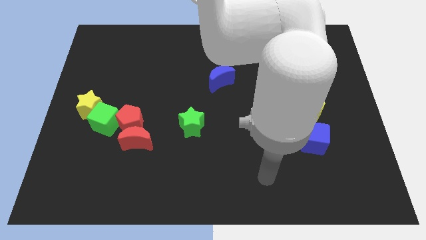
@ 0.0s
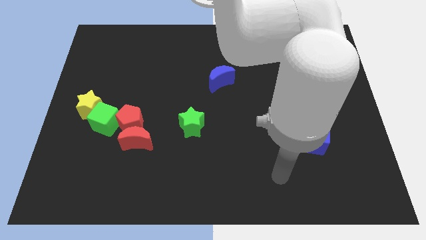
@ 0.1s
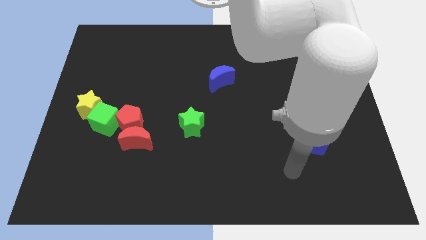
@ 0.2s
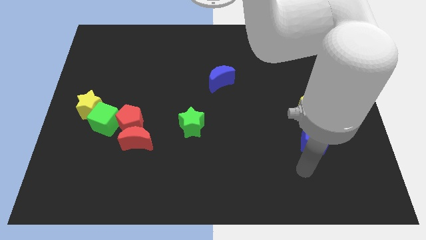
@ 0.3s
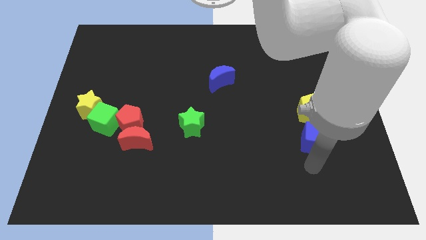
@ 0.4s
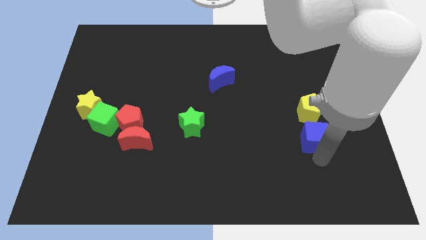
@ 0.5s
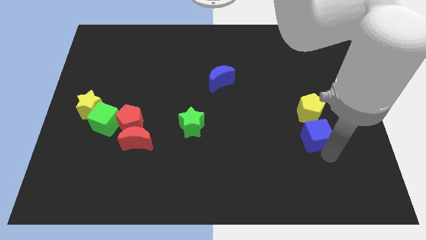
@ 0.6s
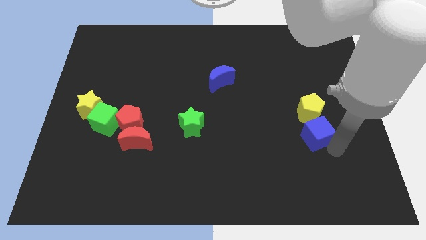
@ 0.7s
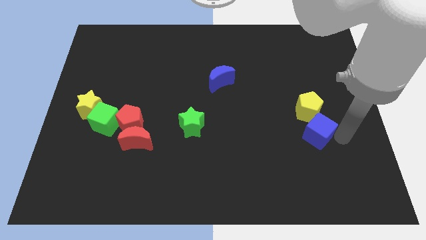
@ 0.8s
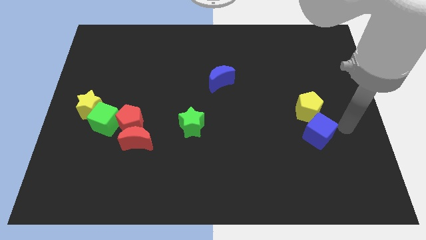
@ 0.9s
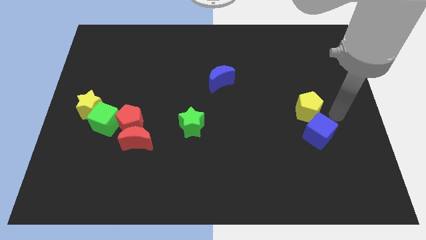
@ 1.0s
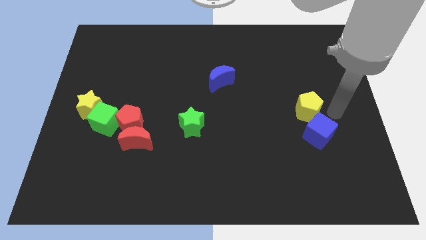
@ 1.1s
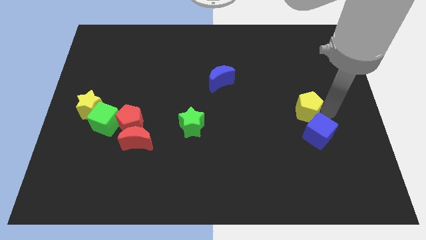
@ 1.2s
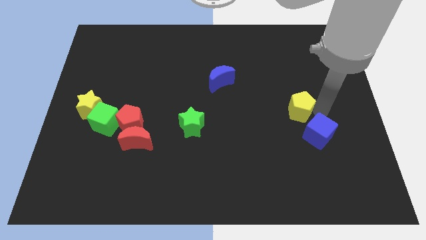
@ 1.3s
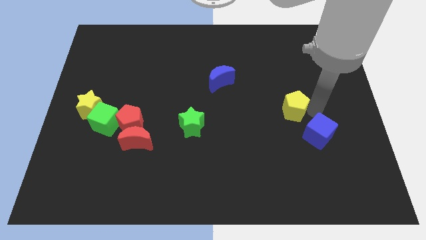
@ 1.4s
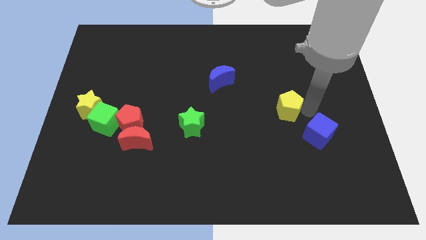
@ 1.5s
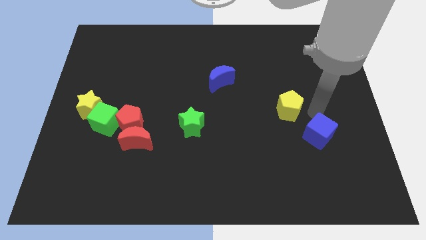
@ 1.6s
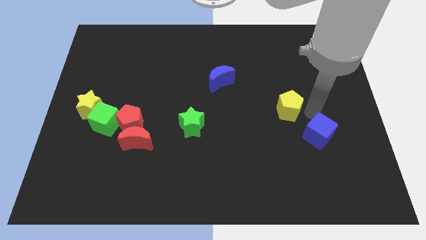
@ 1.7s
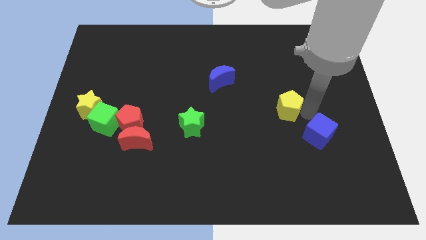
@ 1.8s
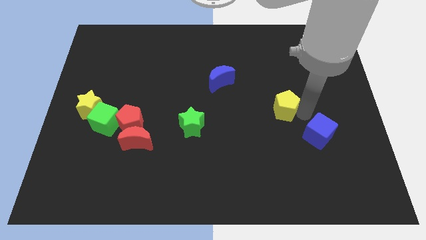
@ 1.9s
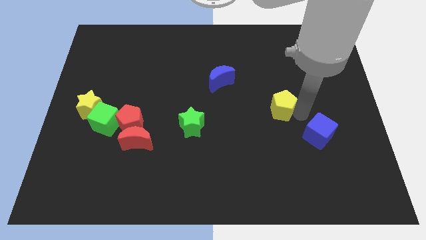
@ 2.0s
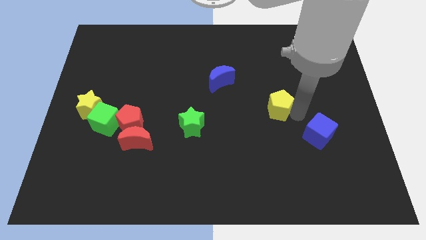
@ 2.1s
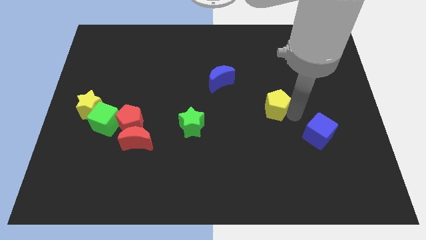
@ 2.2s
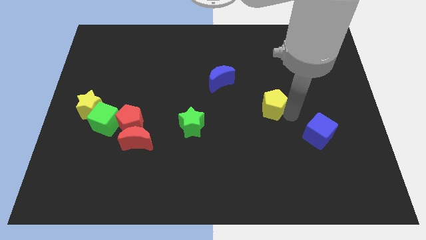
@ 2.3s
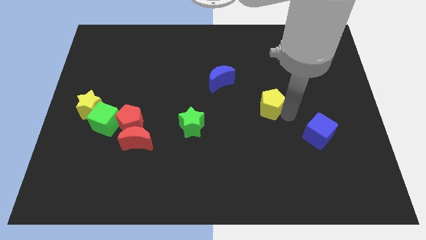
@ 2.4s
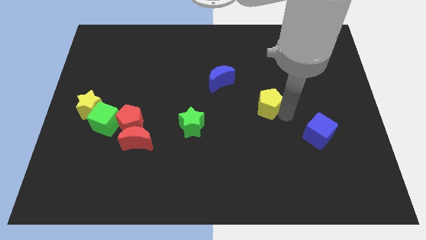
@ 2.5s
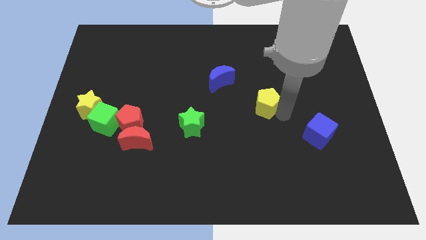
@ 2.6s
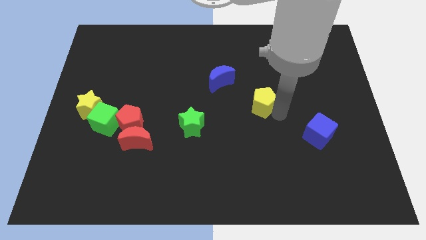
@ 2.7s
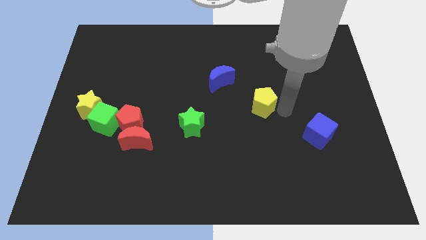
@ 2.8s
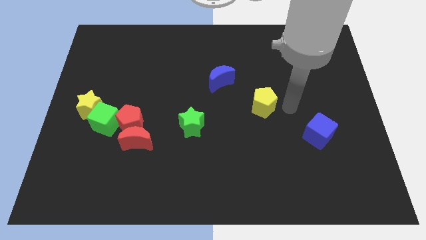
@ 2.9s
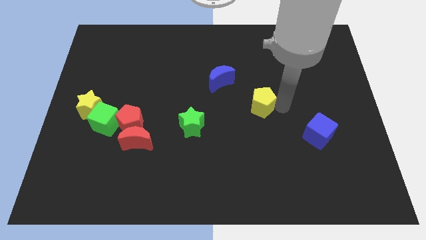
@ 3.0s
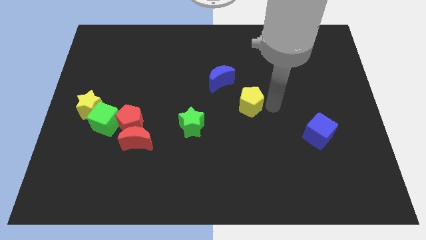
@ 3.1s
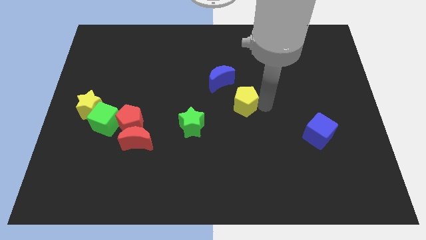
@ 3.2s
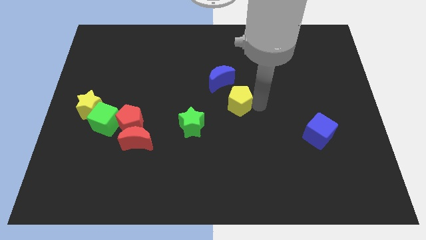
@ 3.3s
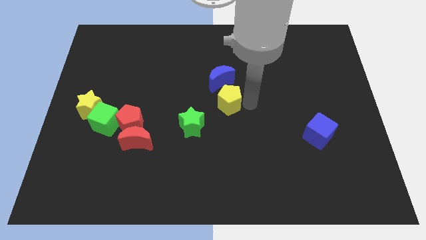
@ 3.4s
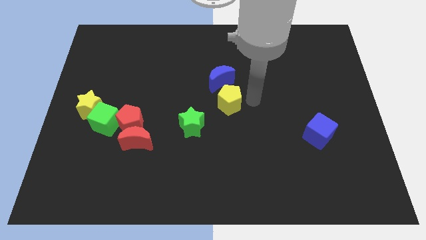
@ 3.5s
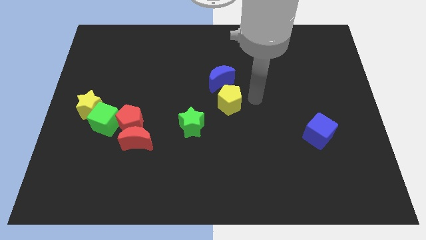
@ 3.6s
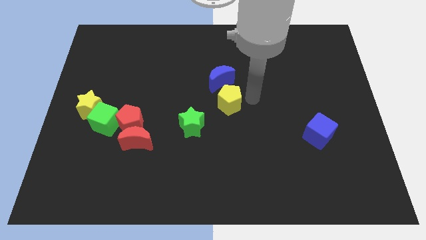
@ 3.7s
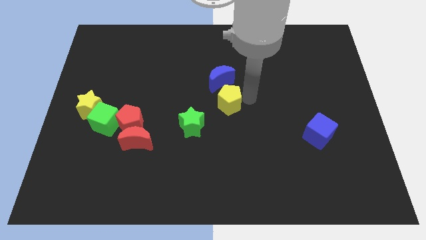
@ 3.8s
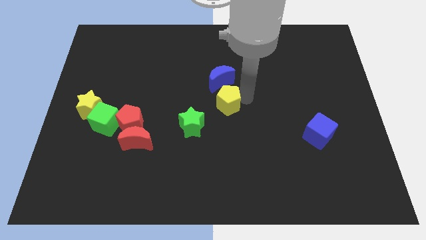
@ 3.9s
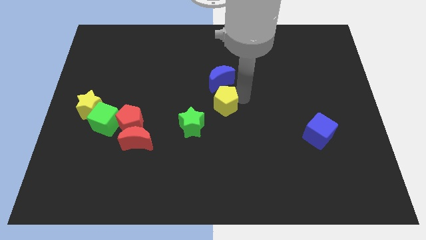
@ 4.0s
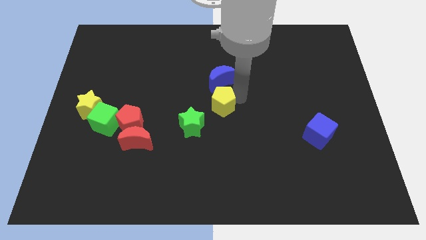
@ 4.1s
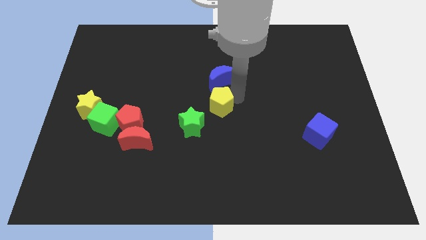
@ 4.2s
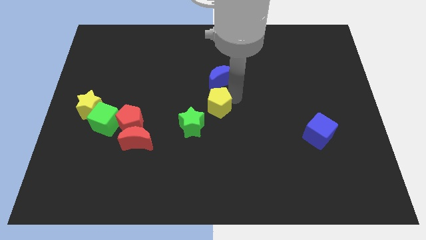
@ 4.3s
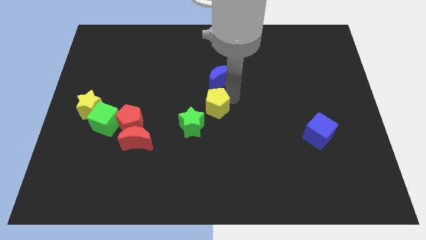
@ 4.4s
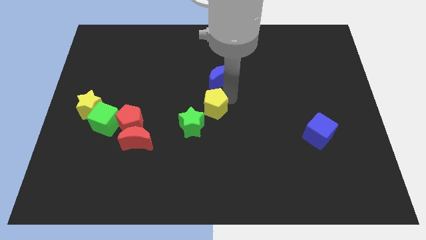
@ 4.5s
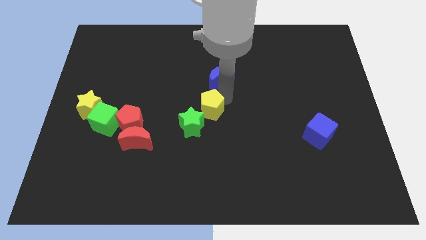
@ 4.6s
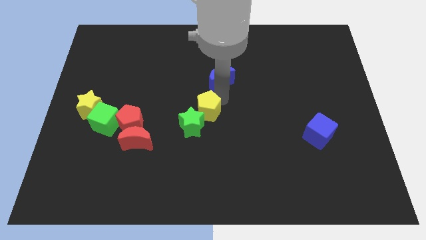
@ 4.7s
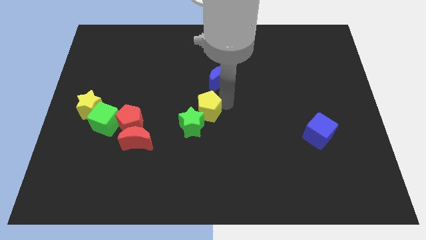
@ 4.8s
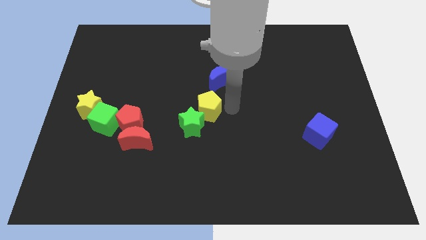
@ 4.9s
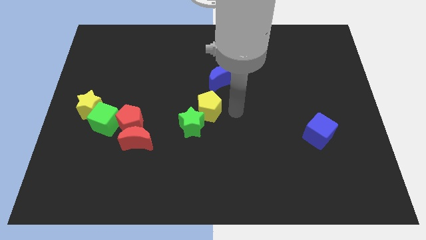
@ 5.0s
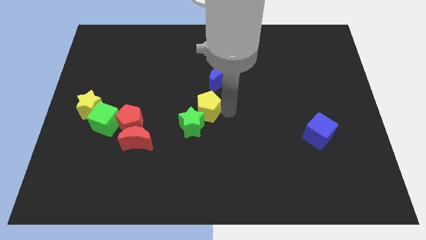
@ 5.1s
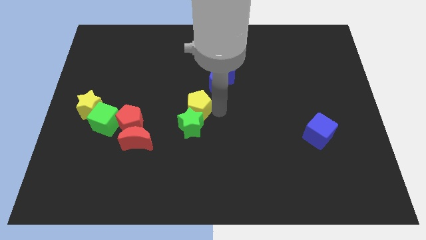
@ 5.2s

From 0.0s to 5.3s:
slide the yellow pentagon to the top left of the green star

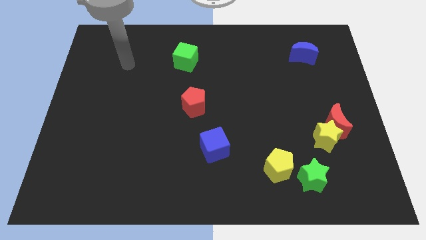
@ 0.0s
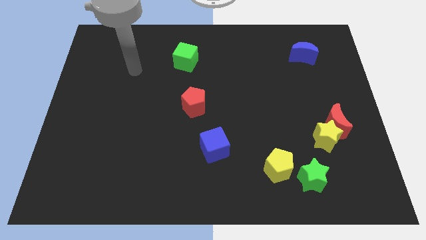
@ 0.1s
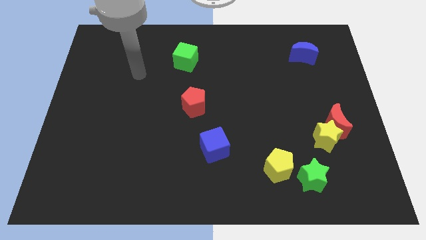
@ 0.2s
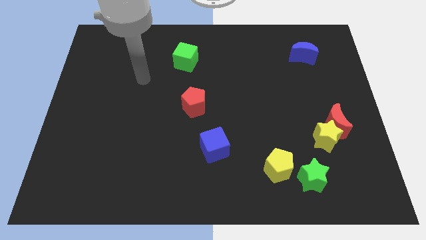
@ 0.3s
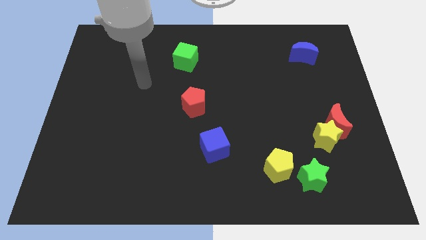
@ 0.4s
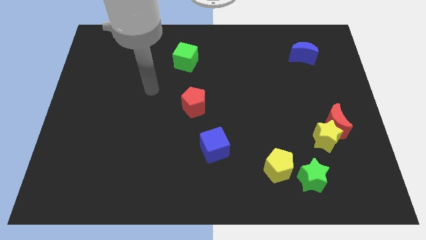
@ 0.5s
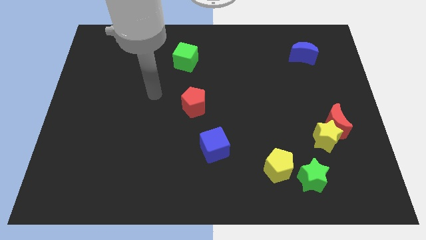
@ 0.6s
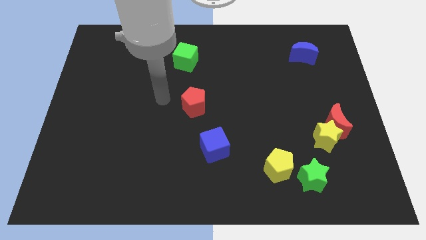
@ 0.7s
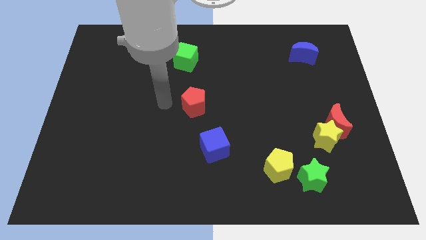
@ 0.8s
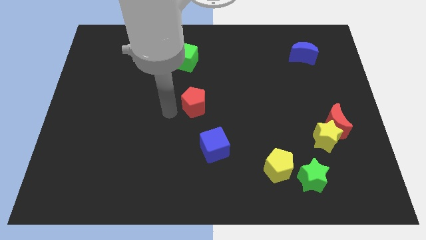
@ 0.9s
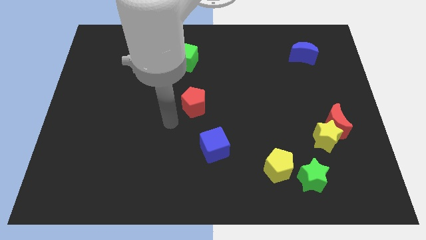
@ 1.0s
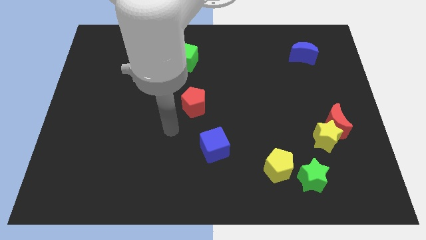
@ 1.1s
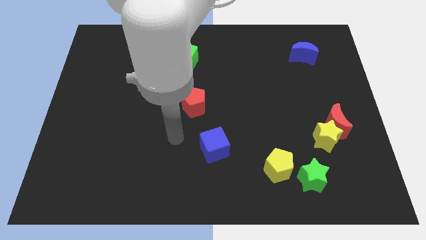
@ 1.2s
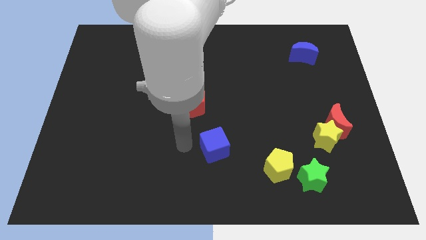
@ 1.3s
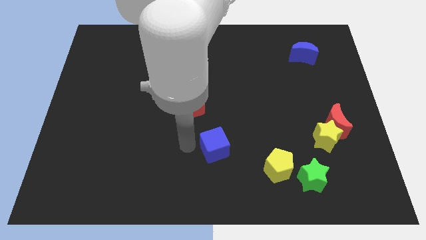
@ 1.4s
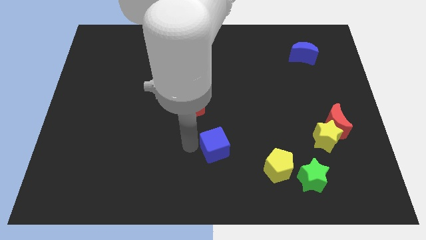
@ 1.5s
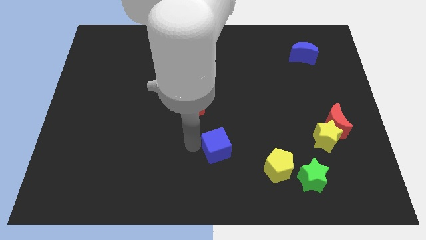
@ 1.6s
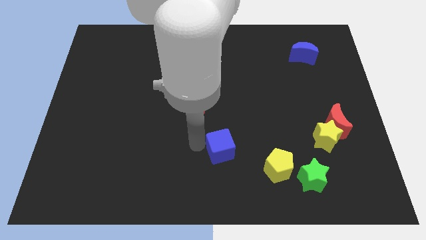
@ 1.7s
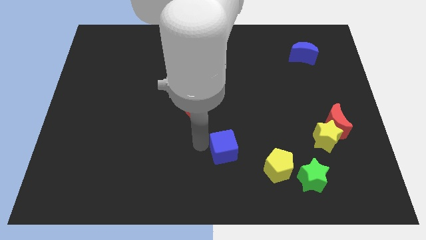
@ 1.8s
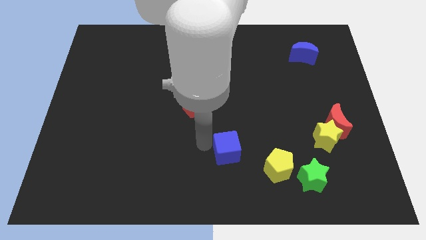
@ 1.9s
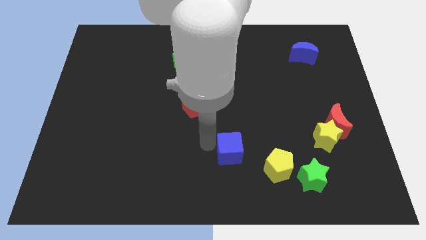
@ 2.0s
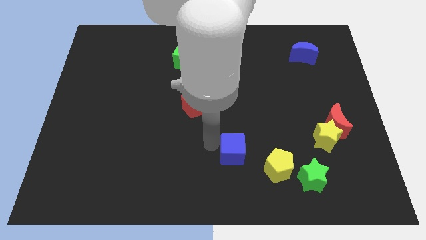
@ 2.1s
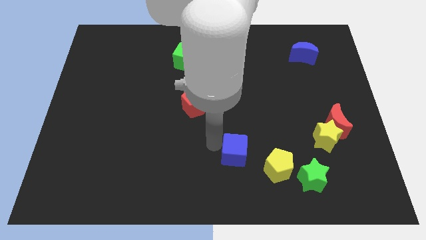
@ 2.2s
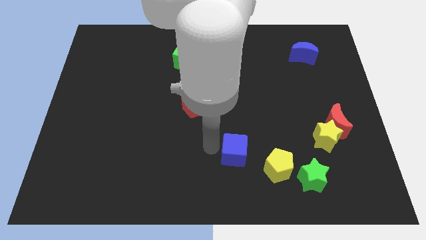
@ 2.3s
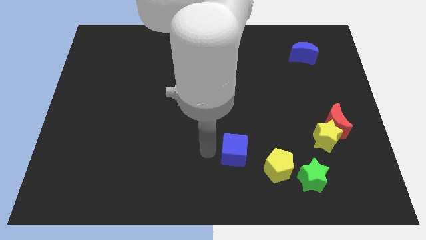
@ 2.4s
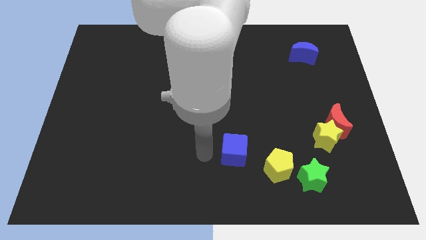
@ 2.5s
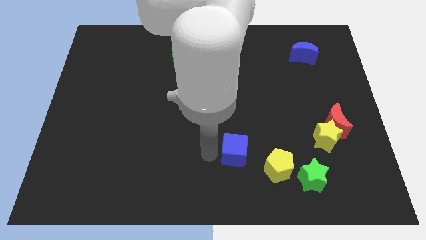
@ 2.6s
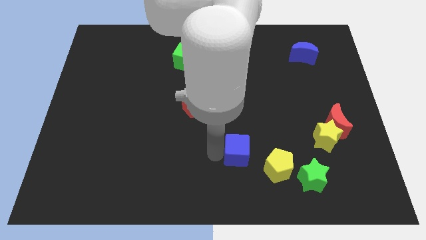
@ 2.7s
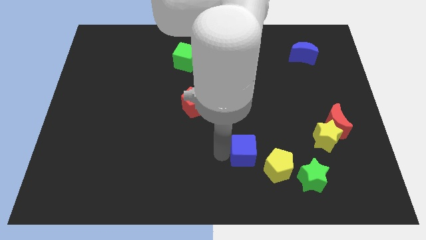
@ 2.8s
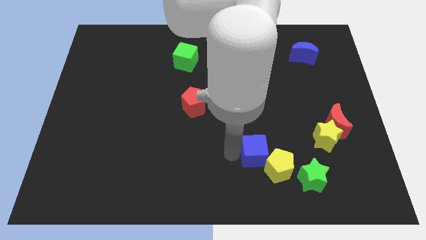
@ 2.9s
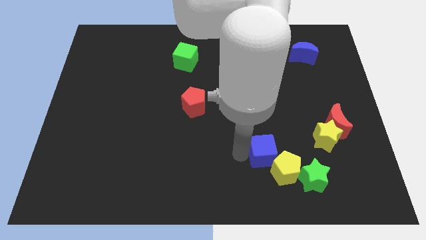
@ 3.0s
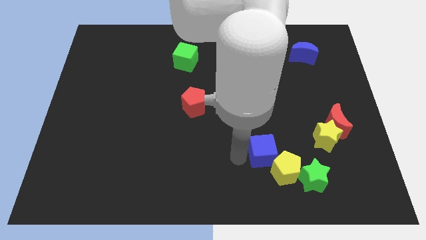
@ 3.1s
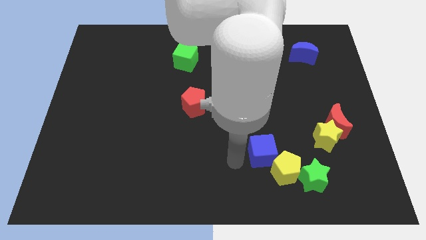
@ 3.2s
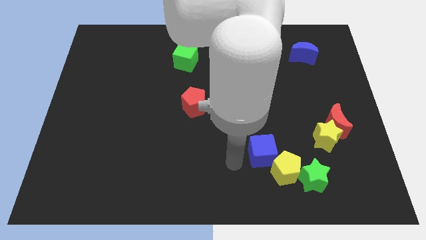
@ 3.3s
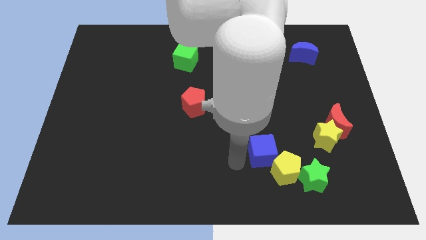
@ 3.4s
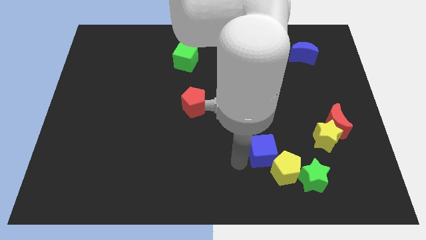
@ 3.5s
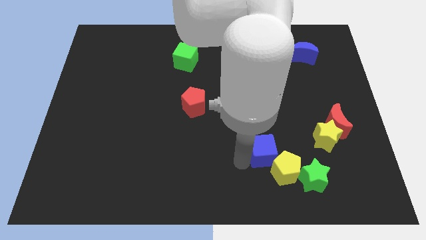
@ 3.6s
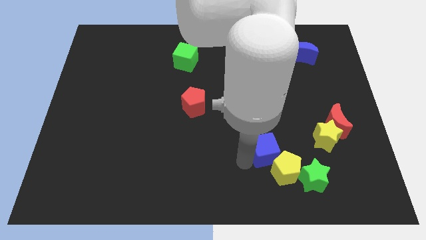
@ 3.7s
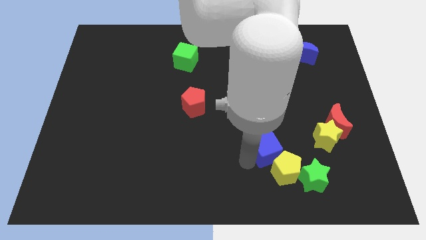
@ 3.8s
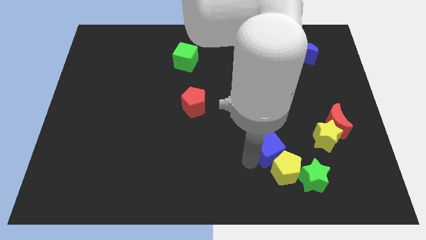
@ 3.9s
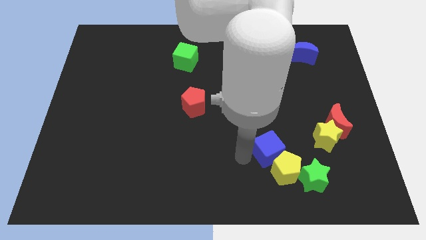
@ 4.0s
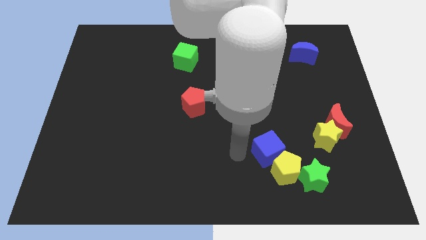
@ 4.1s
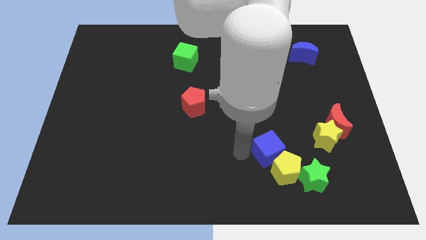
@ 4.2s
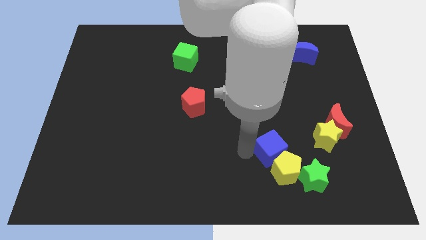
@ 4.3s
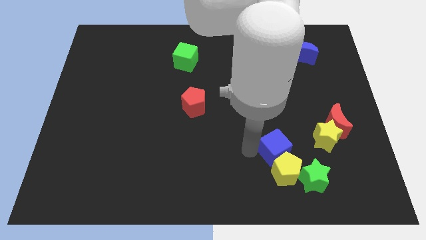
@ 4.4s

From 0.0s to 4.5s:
put the blue cube to the top right of the yellow pentagon
